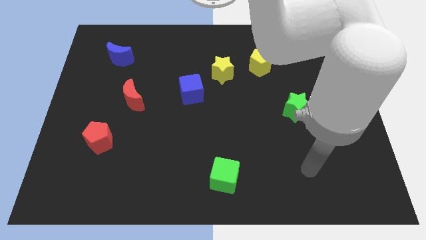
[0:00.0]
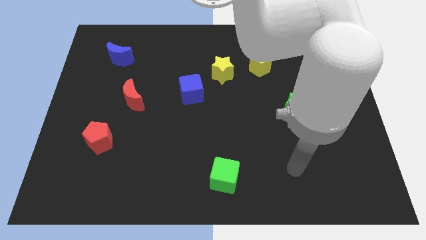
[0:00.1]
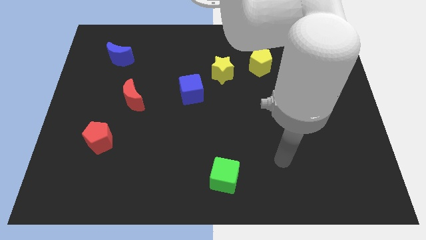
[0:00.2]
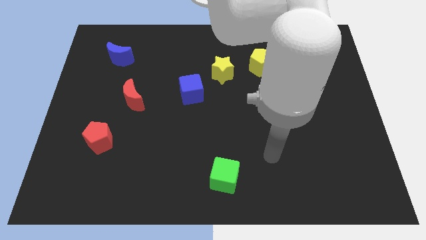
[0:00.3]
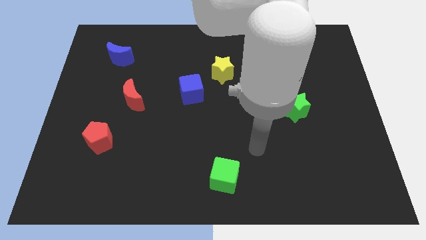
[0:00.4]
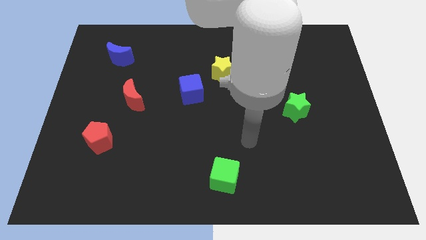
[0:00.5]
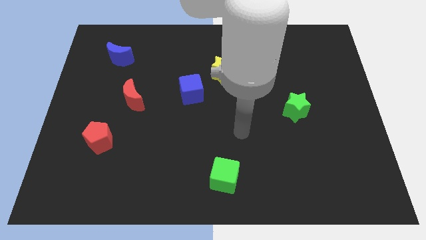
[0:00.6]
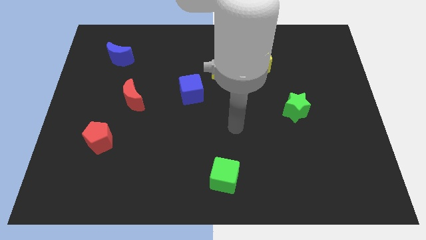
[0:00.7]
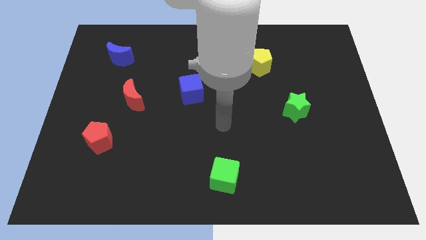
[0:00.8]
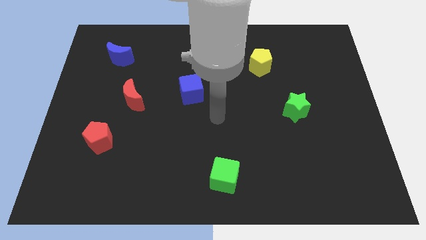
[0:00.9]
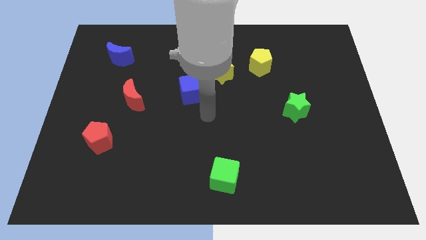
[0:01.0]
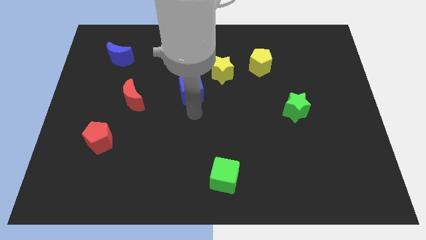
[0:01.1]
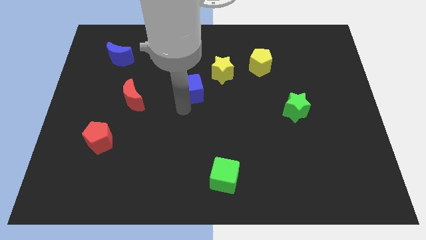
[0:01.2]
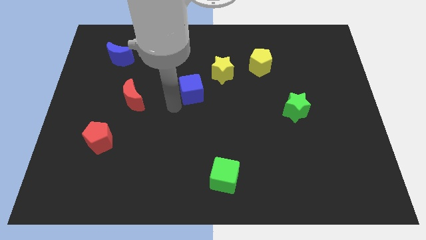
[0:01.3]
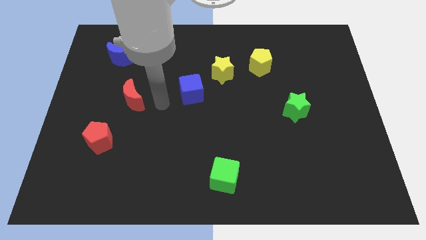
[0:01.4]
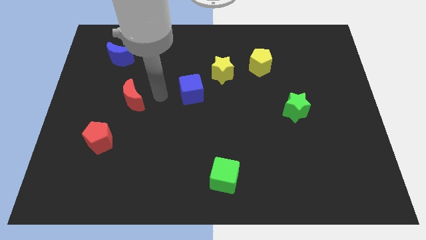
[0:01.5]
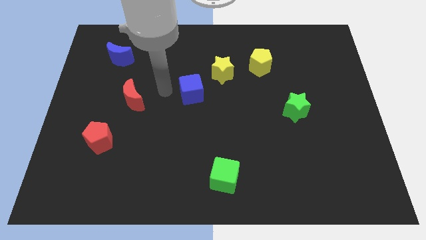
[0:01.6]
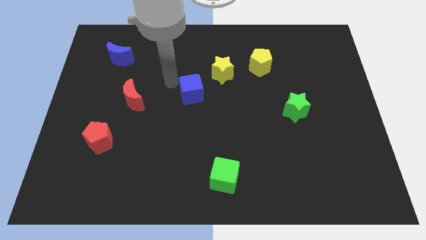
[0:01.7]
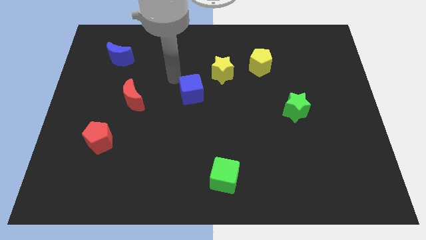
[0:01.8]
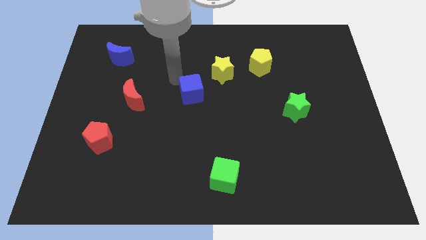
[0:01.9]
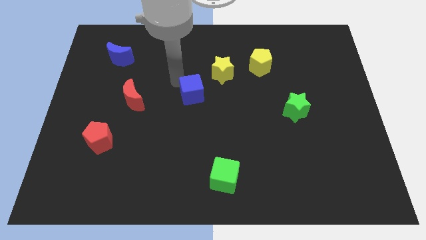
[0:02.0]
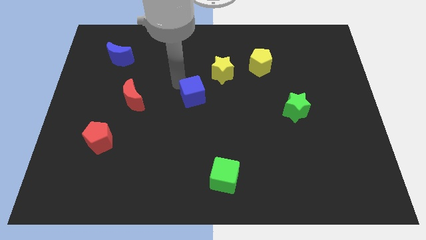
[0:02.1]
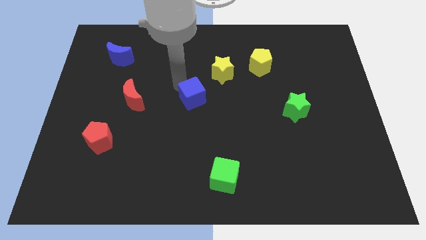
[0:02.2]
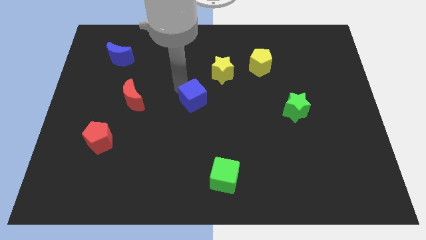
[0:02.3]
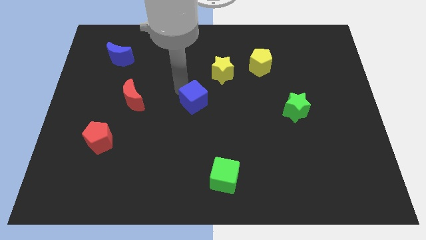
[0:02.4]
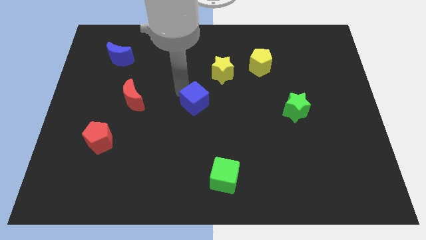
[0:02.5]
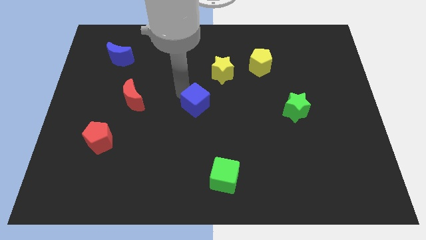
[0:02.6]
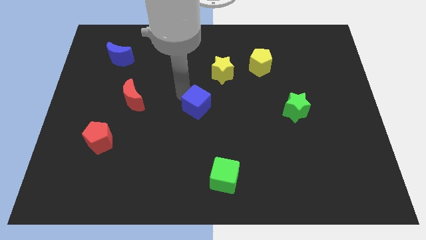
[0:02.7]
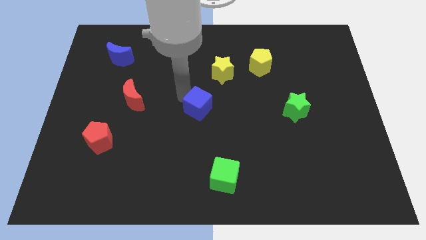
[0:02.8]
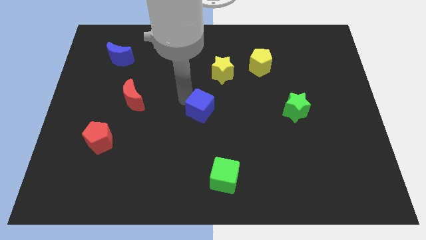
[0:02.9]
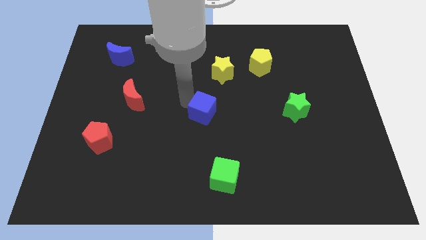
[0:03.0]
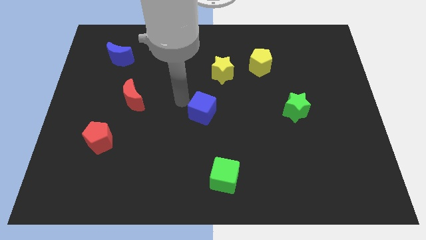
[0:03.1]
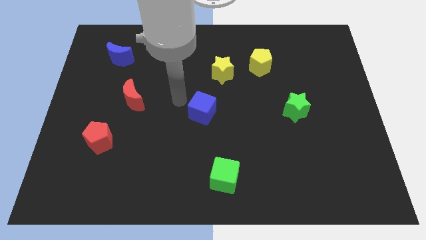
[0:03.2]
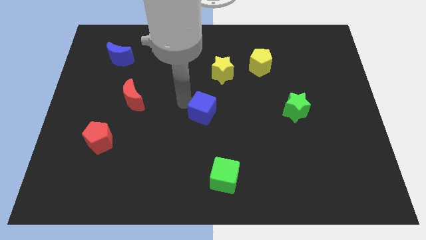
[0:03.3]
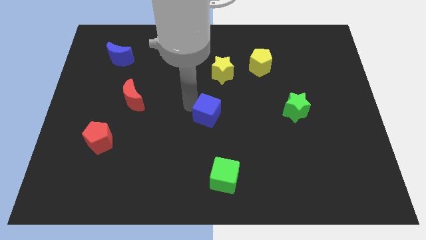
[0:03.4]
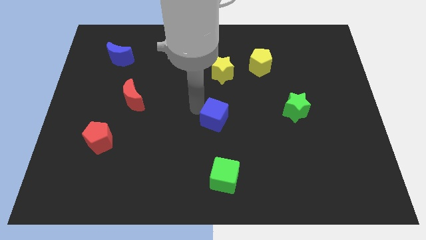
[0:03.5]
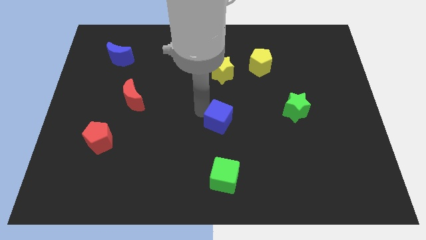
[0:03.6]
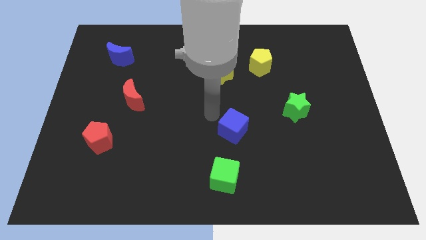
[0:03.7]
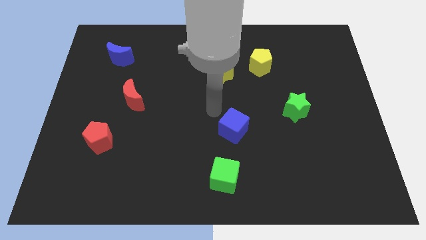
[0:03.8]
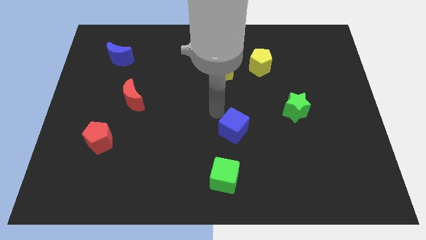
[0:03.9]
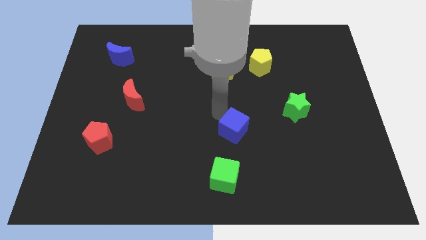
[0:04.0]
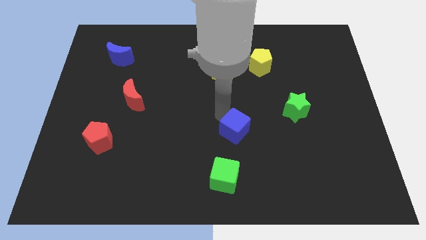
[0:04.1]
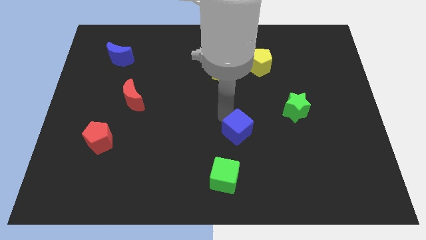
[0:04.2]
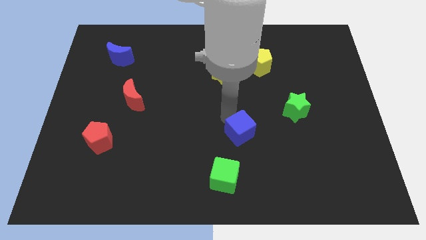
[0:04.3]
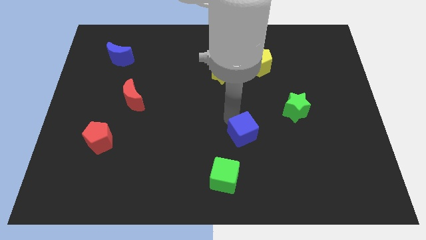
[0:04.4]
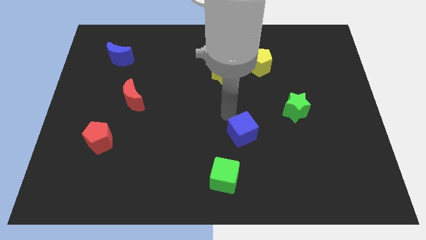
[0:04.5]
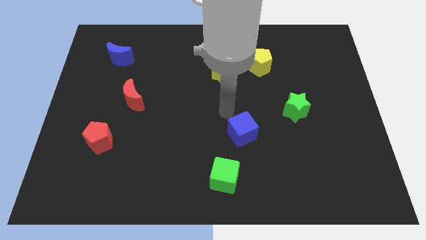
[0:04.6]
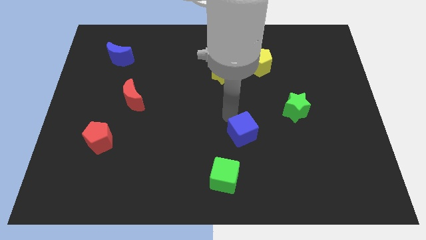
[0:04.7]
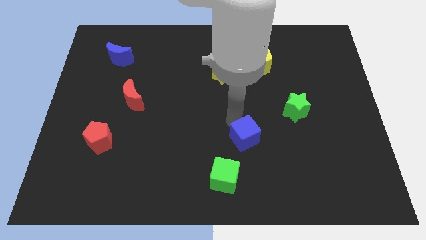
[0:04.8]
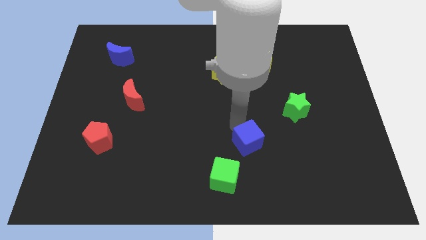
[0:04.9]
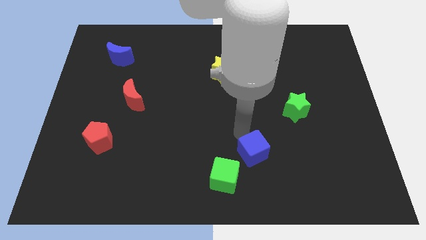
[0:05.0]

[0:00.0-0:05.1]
push the blue cube downwards and then to the right

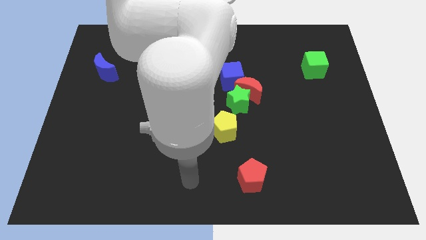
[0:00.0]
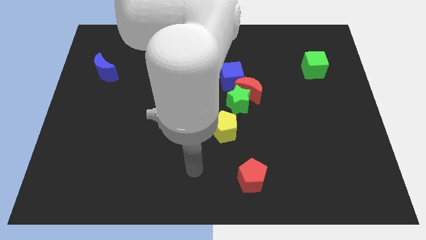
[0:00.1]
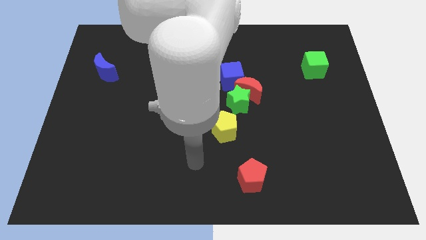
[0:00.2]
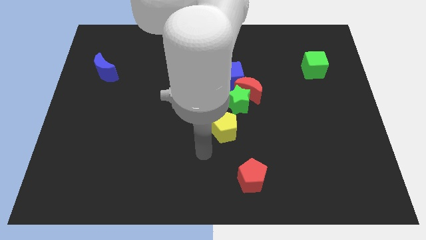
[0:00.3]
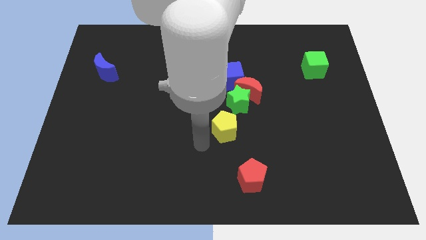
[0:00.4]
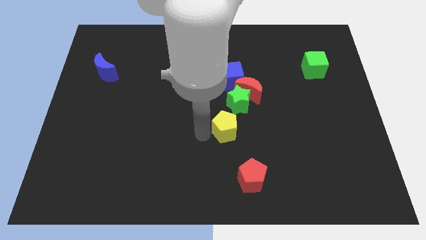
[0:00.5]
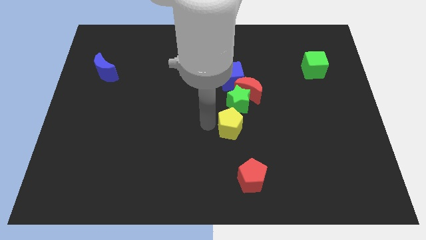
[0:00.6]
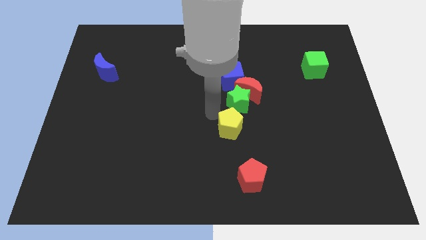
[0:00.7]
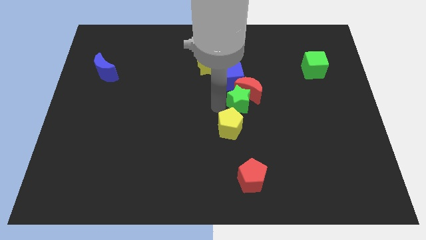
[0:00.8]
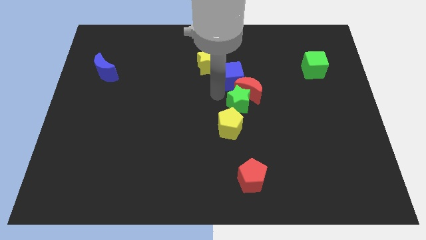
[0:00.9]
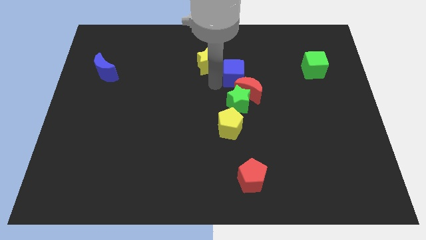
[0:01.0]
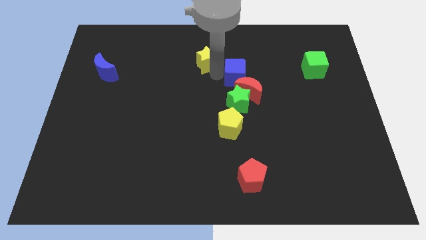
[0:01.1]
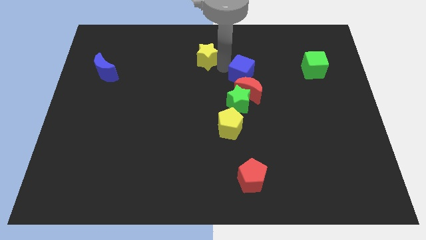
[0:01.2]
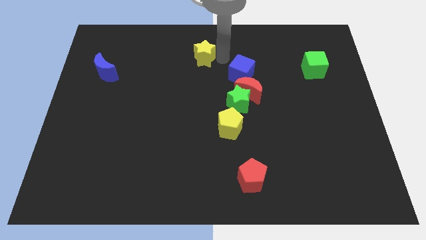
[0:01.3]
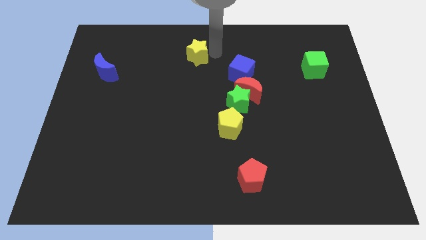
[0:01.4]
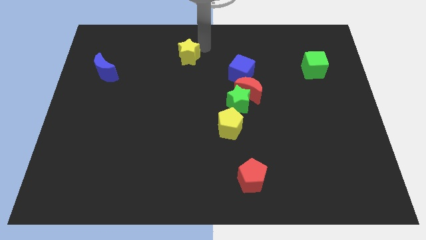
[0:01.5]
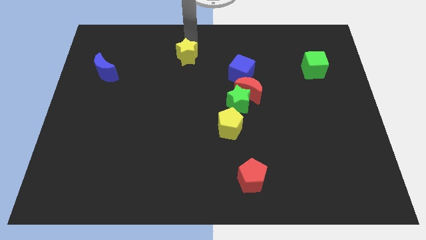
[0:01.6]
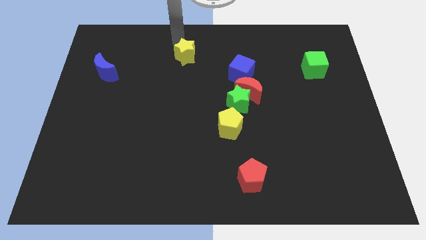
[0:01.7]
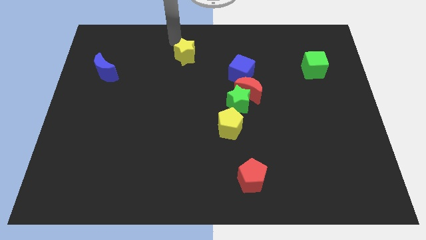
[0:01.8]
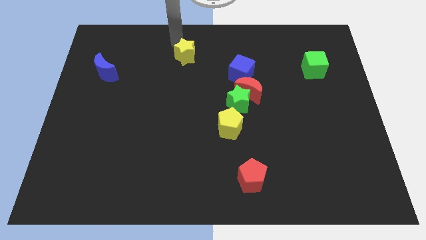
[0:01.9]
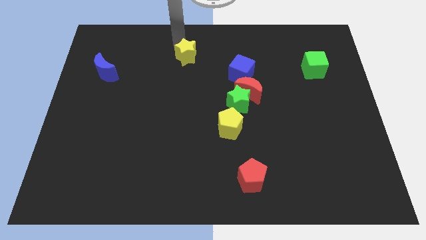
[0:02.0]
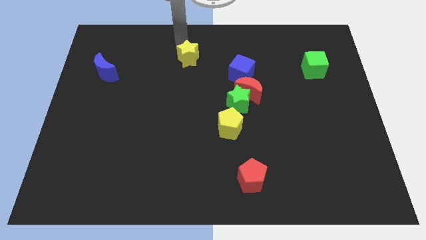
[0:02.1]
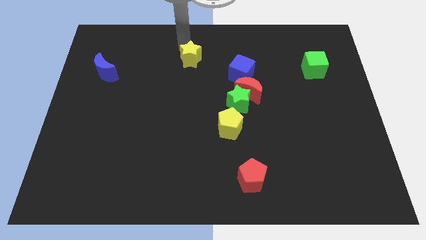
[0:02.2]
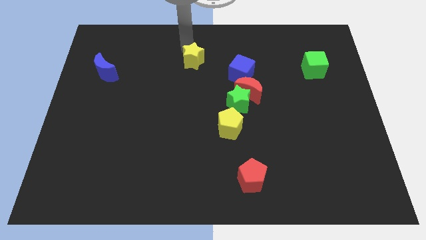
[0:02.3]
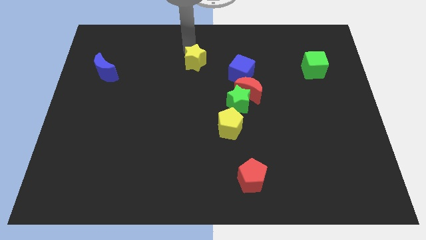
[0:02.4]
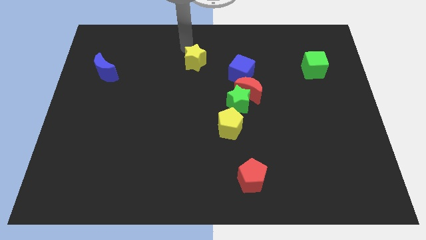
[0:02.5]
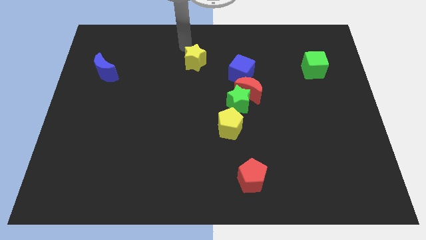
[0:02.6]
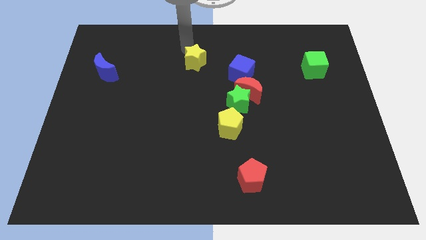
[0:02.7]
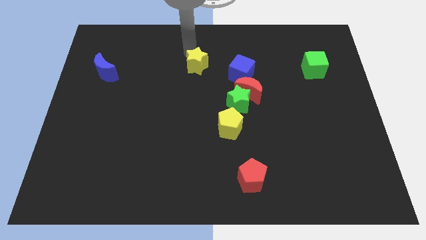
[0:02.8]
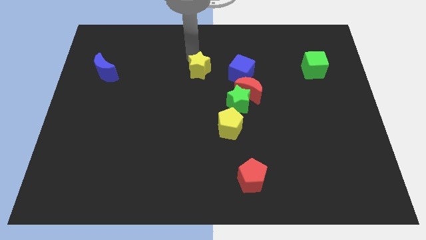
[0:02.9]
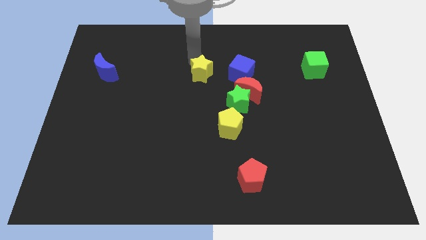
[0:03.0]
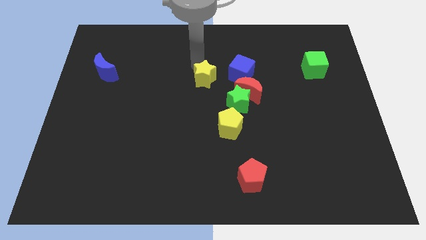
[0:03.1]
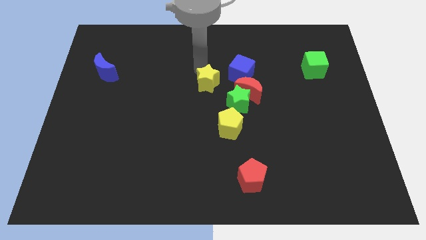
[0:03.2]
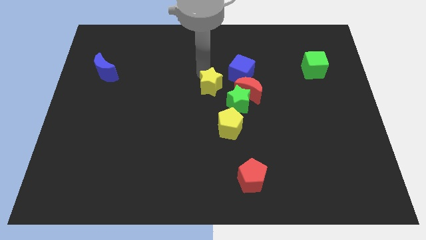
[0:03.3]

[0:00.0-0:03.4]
slide the yellow star down a little bit
